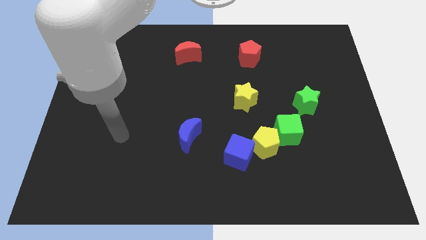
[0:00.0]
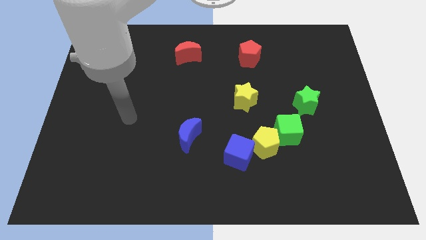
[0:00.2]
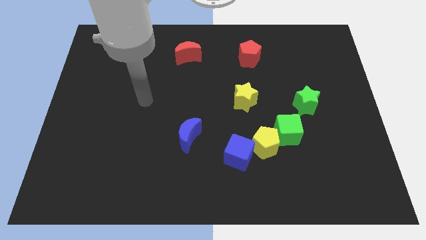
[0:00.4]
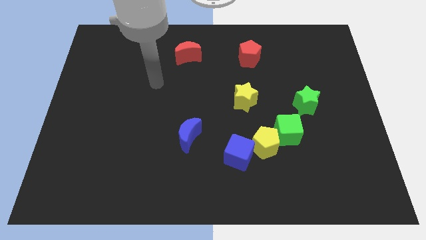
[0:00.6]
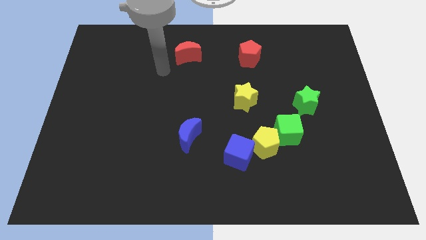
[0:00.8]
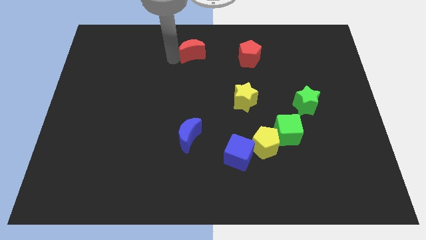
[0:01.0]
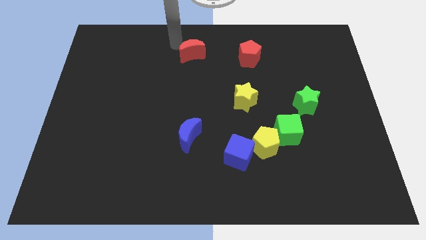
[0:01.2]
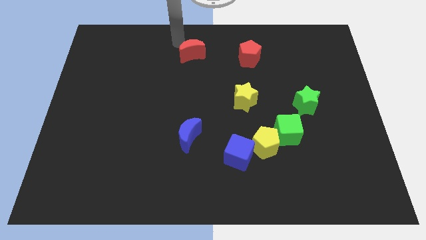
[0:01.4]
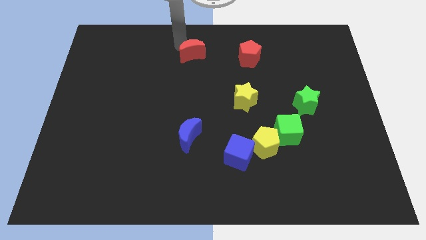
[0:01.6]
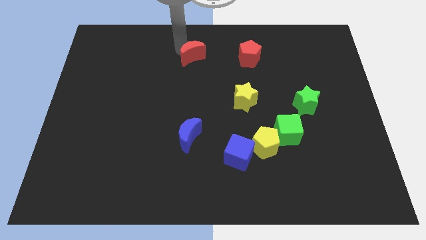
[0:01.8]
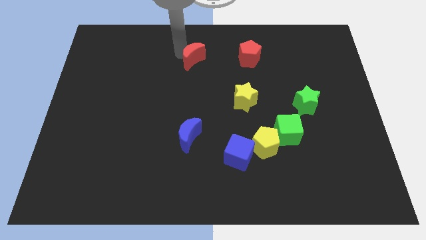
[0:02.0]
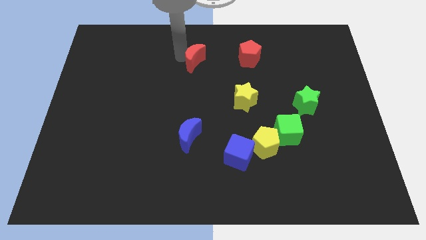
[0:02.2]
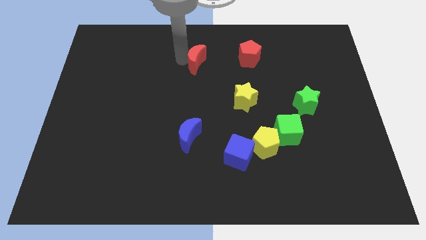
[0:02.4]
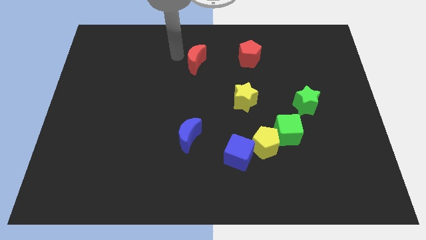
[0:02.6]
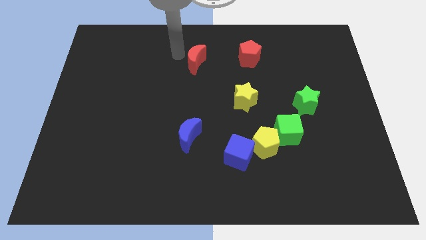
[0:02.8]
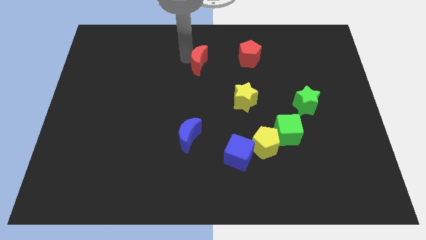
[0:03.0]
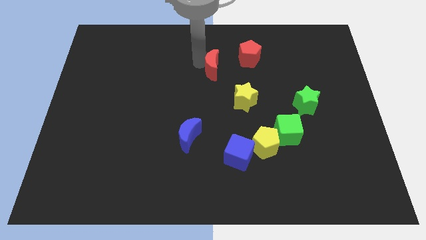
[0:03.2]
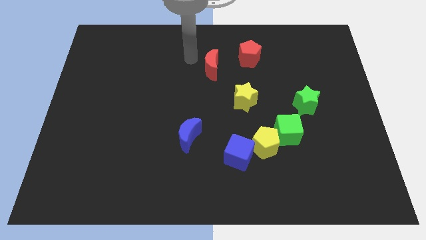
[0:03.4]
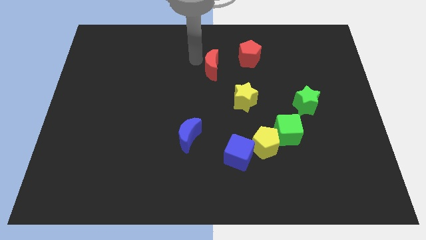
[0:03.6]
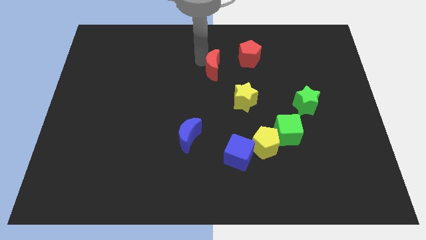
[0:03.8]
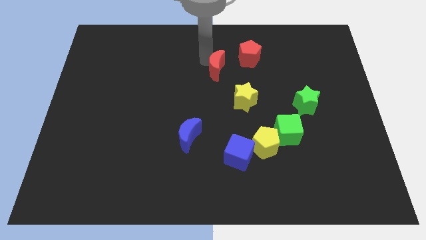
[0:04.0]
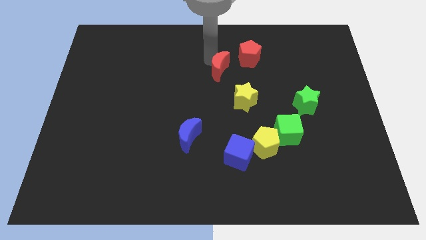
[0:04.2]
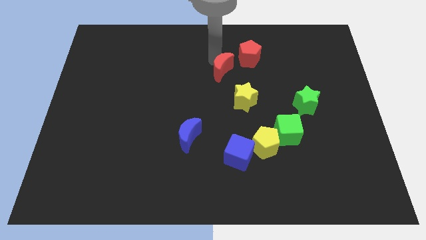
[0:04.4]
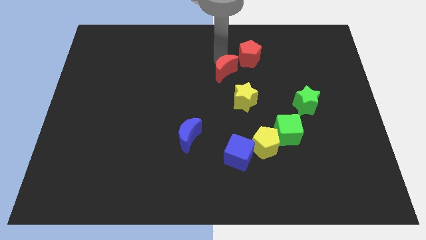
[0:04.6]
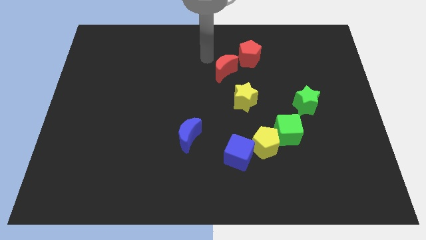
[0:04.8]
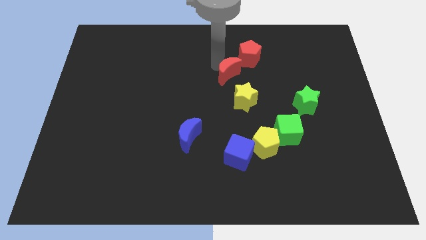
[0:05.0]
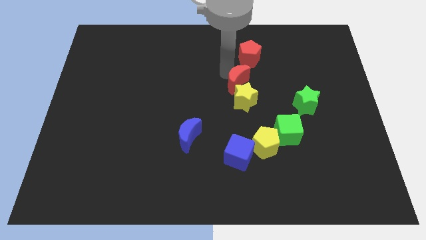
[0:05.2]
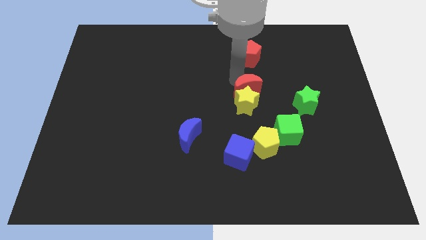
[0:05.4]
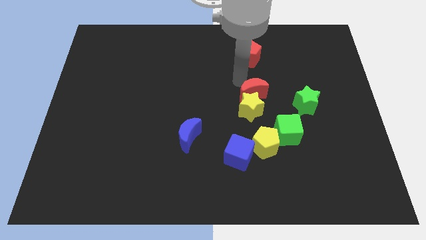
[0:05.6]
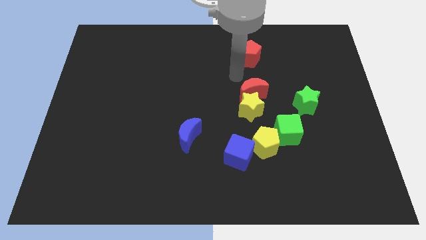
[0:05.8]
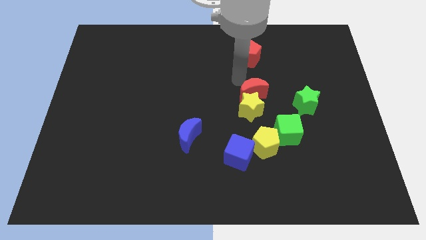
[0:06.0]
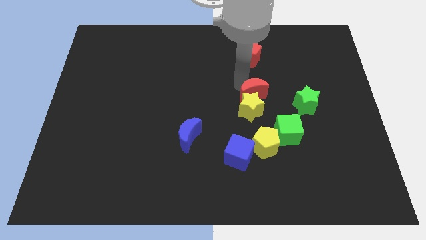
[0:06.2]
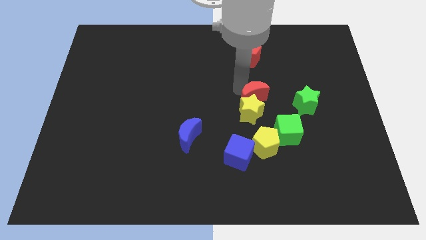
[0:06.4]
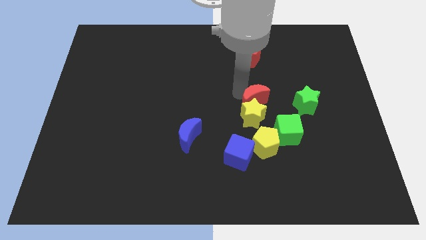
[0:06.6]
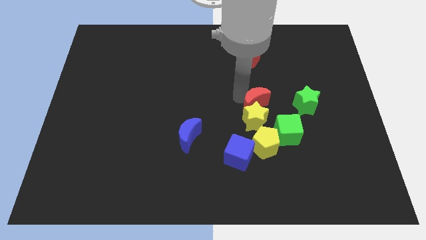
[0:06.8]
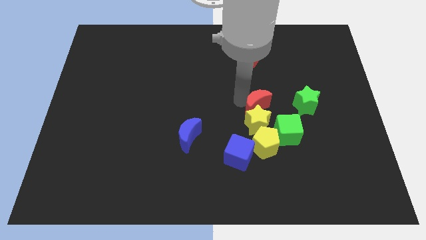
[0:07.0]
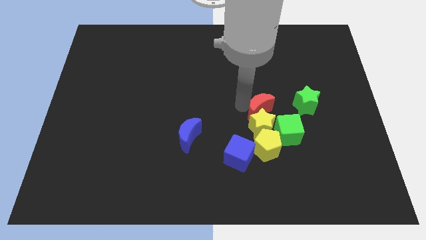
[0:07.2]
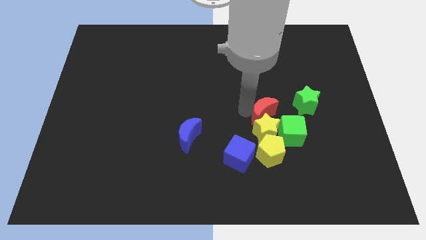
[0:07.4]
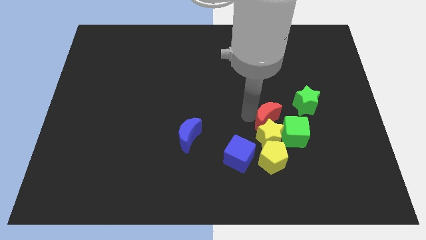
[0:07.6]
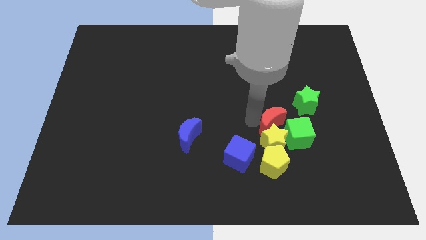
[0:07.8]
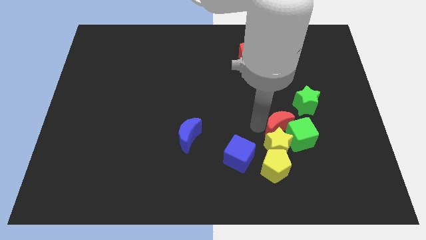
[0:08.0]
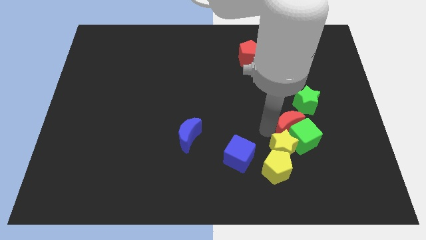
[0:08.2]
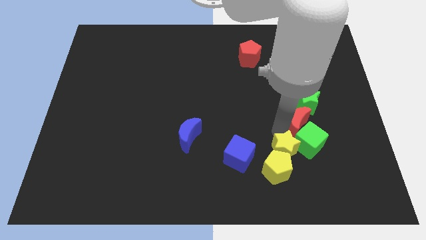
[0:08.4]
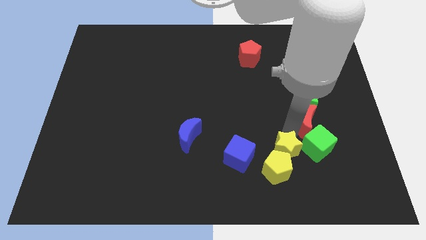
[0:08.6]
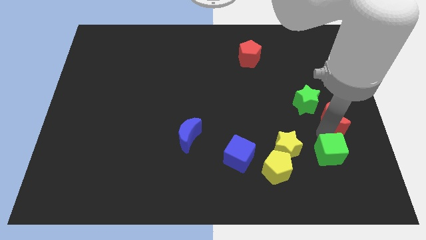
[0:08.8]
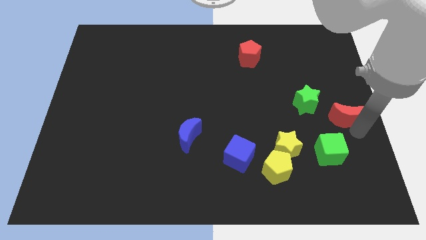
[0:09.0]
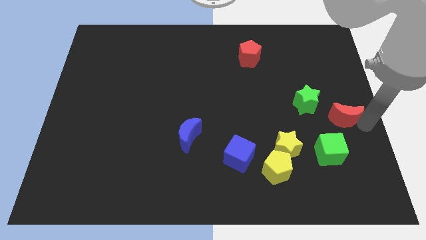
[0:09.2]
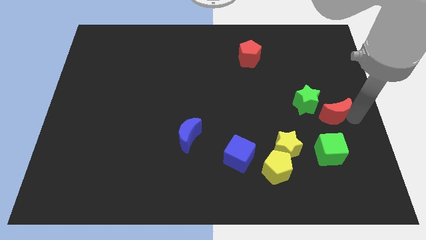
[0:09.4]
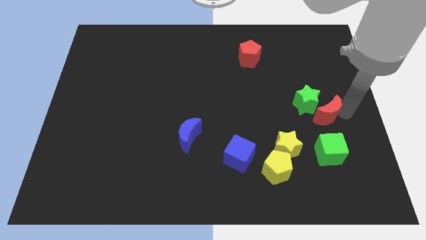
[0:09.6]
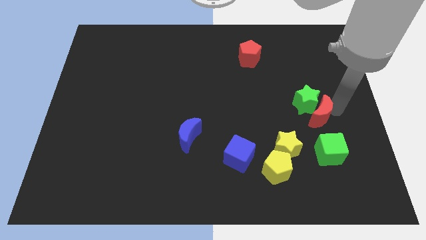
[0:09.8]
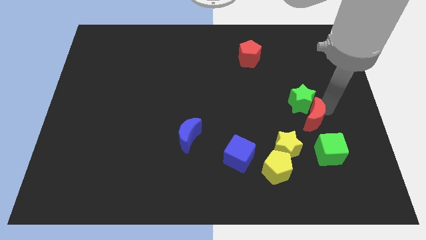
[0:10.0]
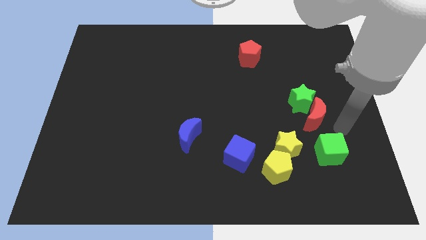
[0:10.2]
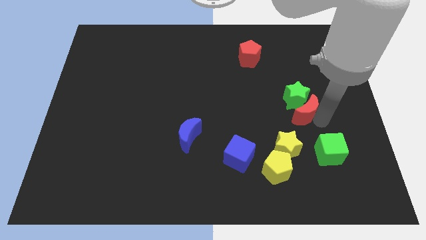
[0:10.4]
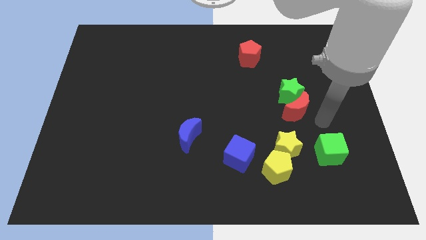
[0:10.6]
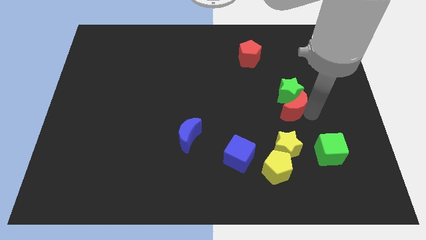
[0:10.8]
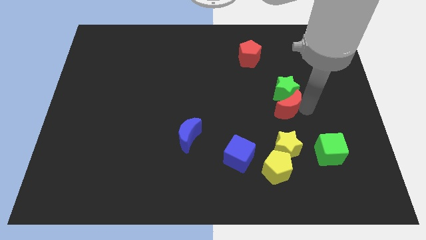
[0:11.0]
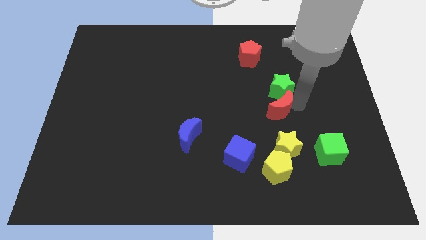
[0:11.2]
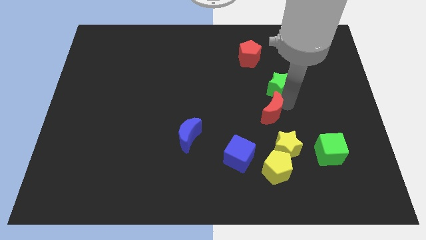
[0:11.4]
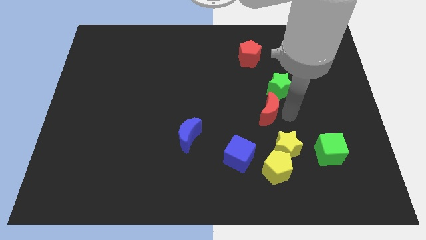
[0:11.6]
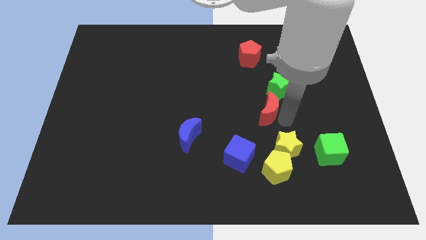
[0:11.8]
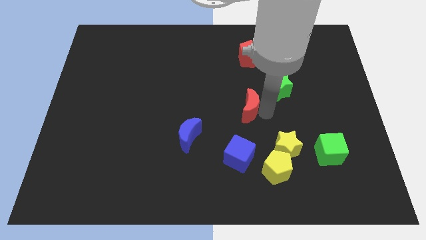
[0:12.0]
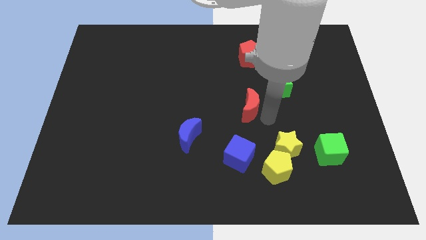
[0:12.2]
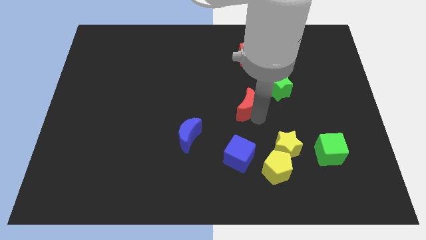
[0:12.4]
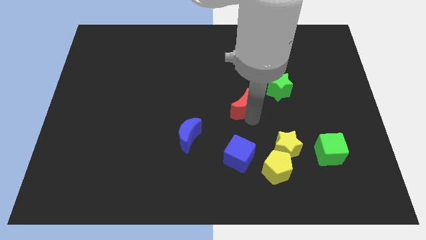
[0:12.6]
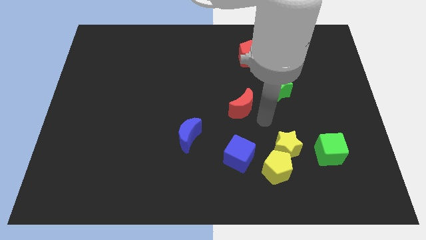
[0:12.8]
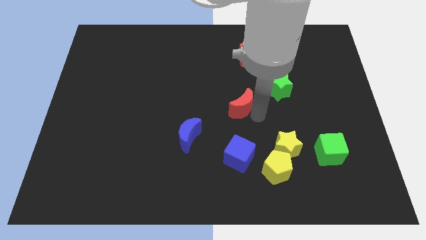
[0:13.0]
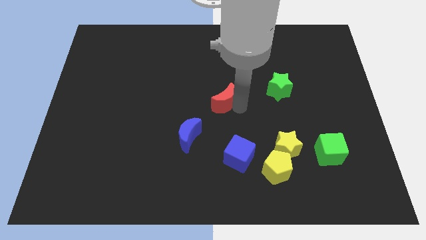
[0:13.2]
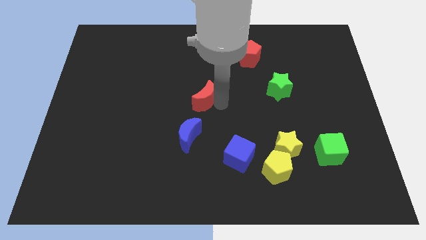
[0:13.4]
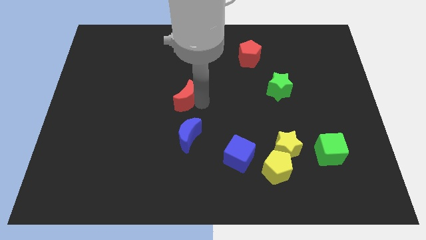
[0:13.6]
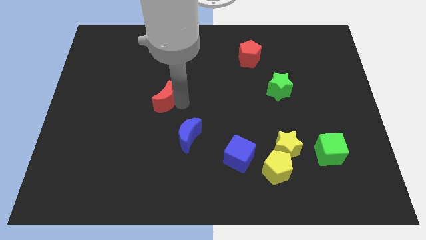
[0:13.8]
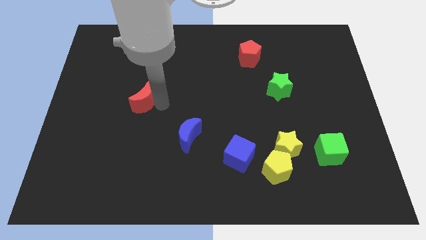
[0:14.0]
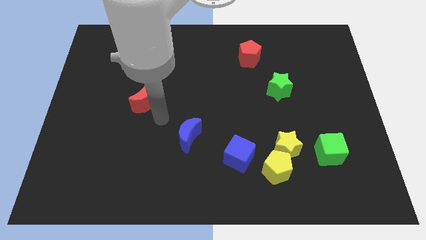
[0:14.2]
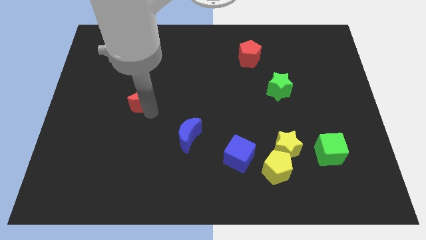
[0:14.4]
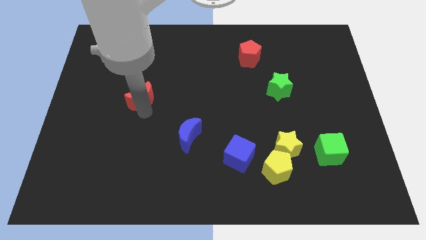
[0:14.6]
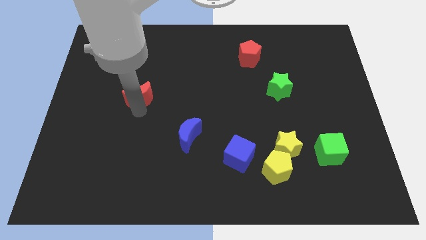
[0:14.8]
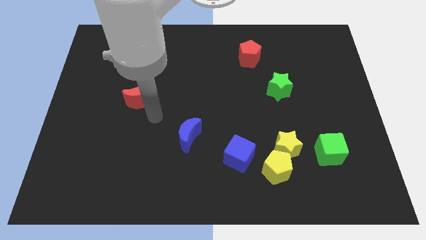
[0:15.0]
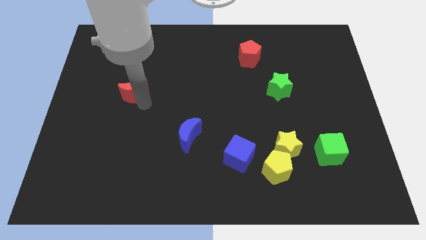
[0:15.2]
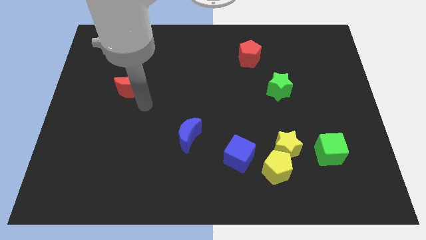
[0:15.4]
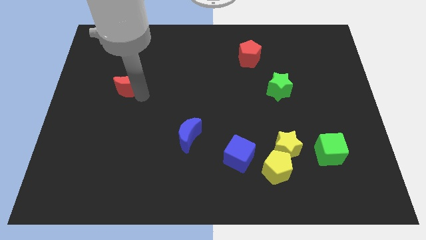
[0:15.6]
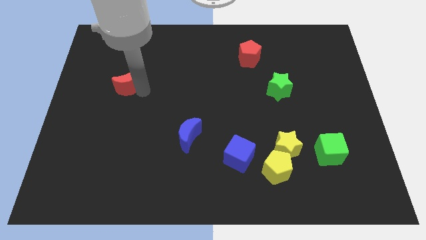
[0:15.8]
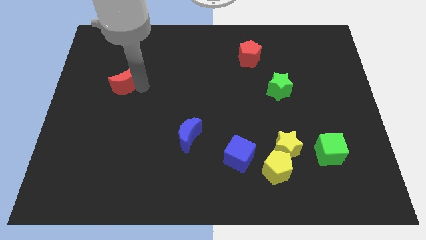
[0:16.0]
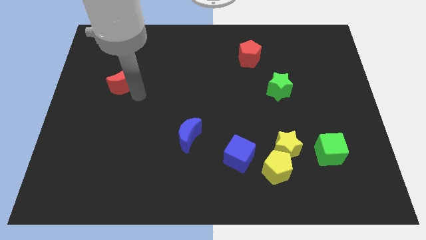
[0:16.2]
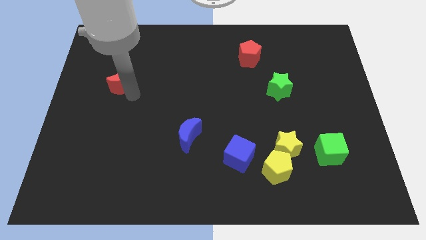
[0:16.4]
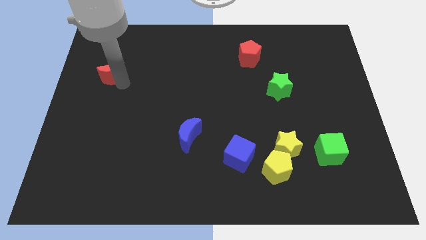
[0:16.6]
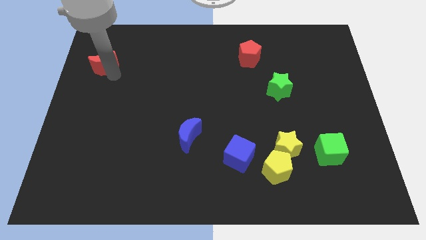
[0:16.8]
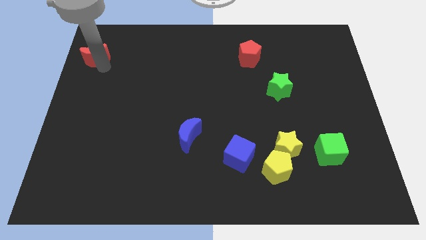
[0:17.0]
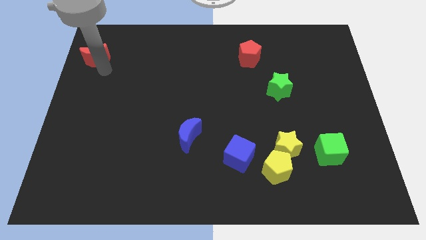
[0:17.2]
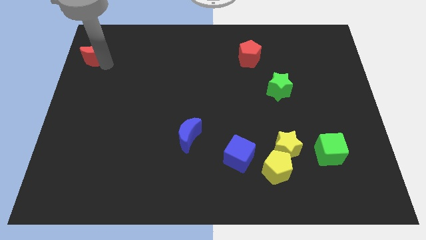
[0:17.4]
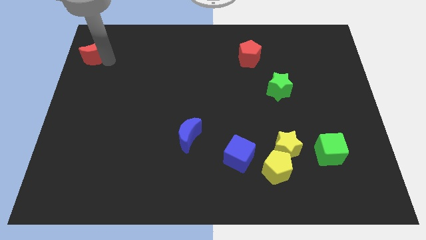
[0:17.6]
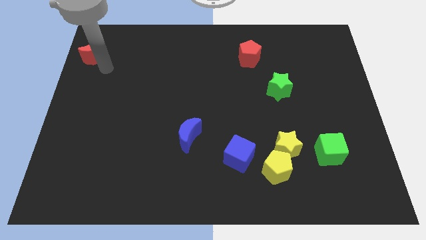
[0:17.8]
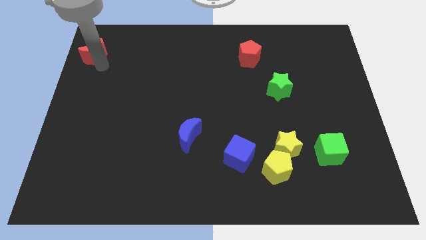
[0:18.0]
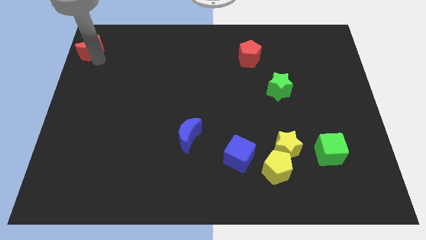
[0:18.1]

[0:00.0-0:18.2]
put the red moon to the top left of the board
